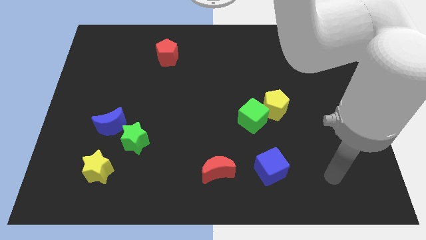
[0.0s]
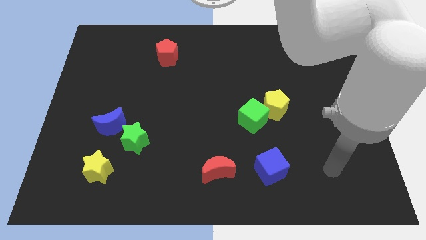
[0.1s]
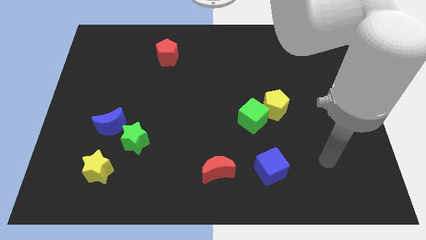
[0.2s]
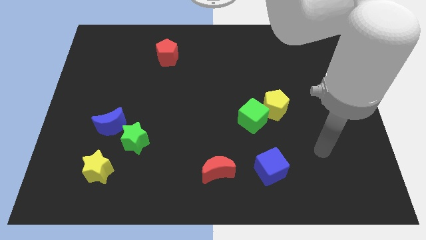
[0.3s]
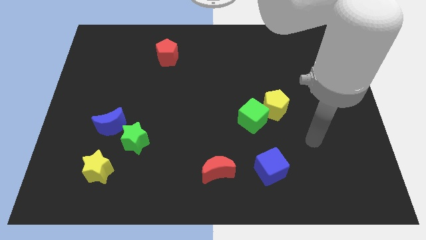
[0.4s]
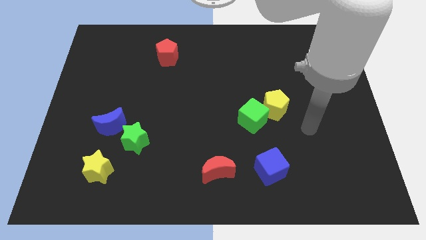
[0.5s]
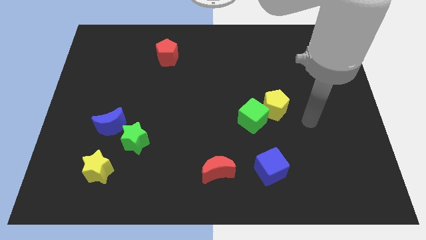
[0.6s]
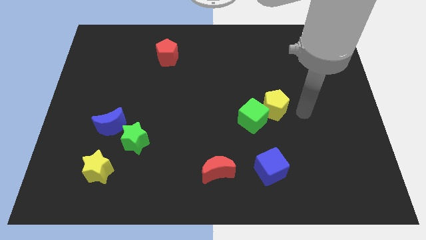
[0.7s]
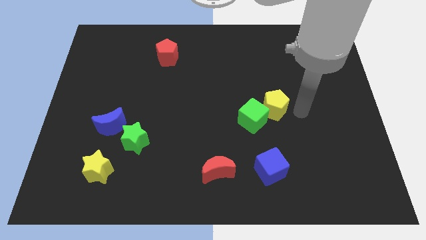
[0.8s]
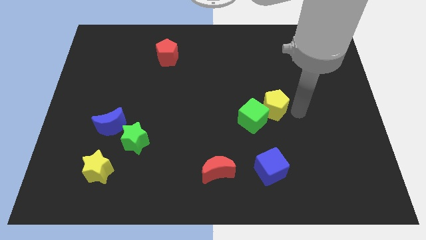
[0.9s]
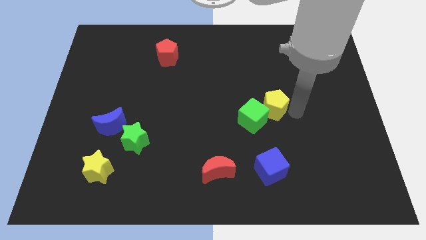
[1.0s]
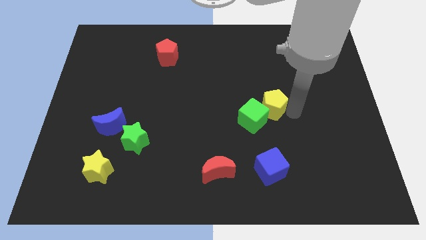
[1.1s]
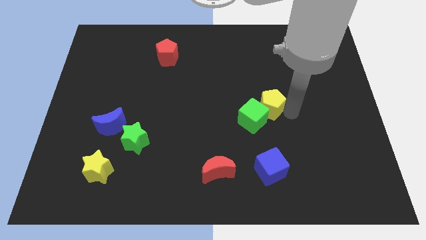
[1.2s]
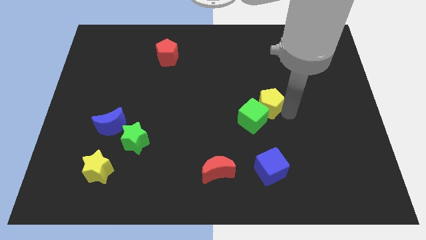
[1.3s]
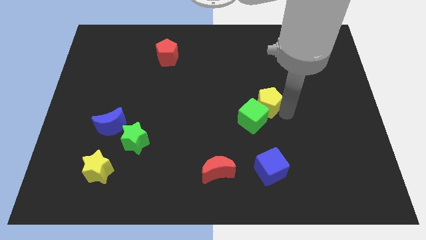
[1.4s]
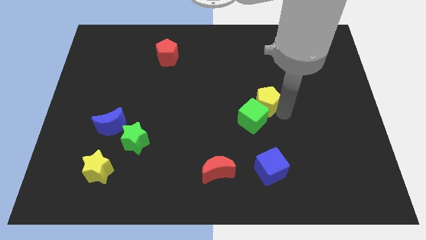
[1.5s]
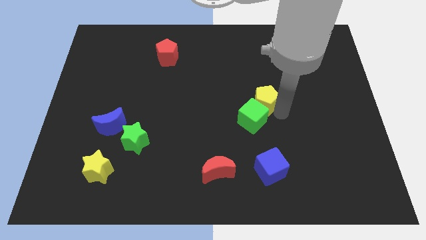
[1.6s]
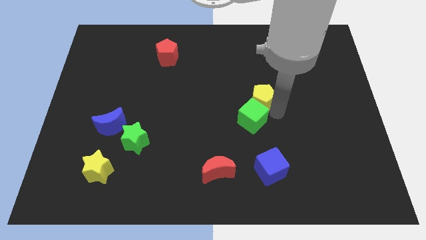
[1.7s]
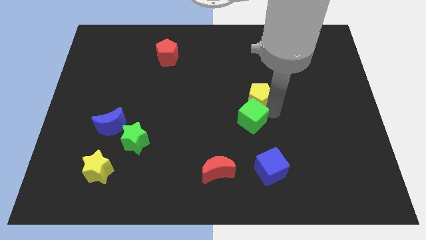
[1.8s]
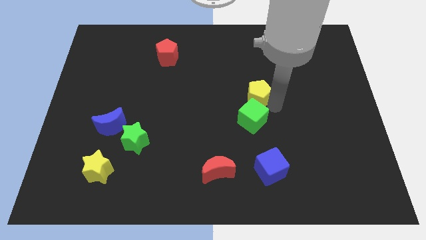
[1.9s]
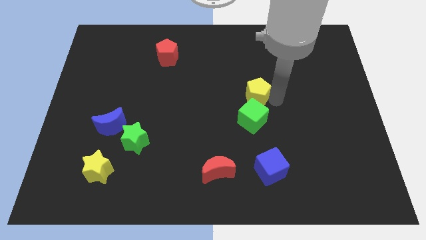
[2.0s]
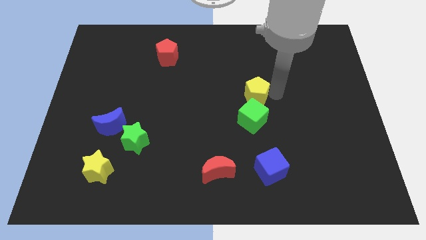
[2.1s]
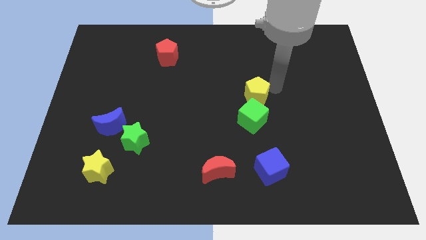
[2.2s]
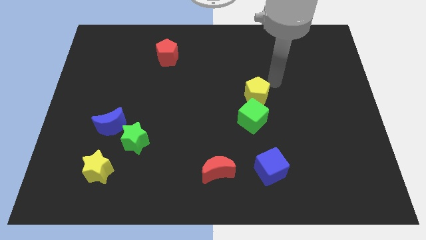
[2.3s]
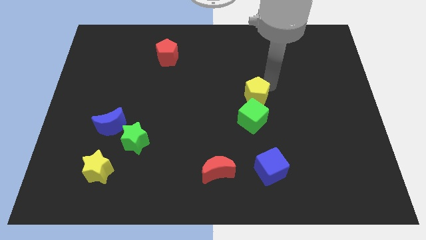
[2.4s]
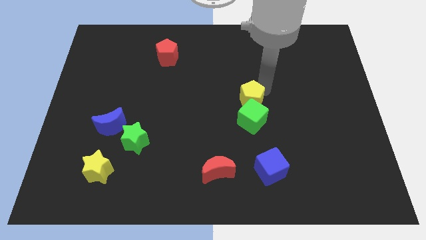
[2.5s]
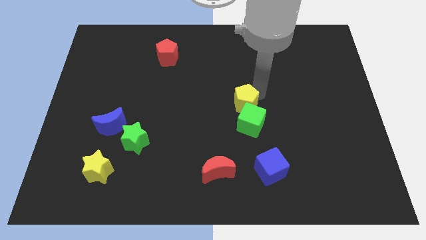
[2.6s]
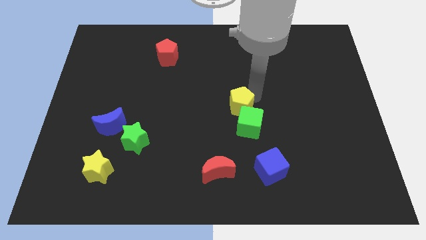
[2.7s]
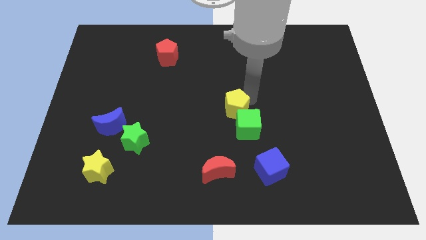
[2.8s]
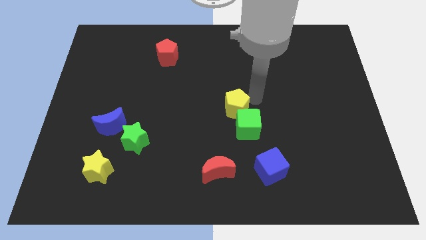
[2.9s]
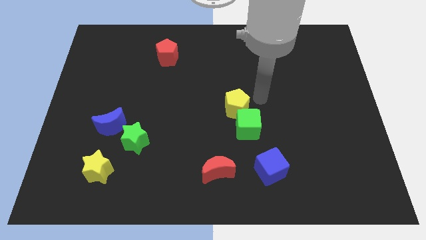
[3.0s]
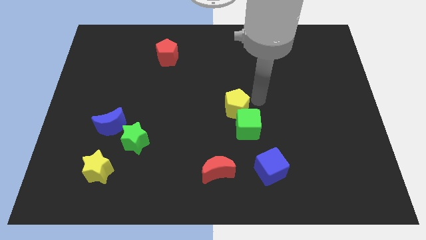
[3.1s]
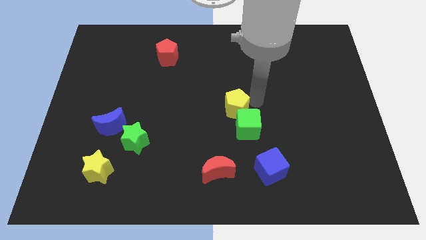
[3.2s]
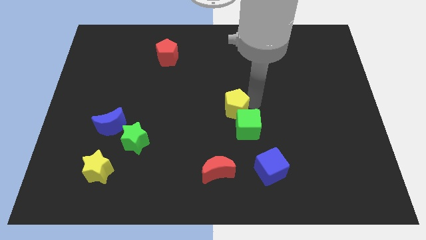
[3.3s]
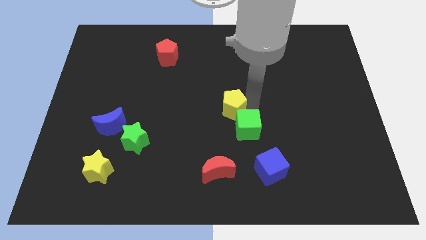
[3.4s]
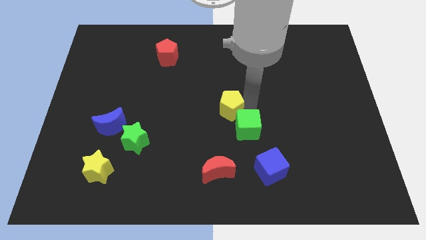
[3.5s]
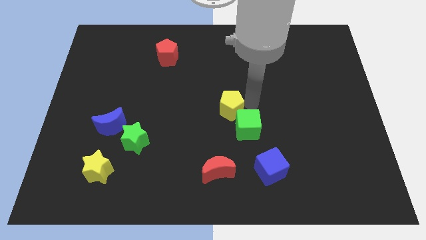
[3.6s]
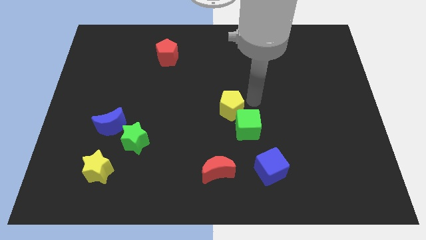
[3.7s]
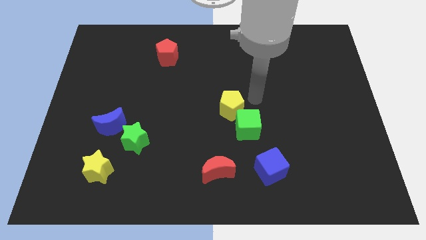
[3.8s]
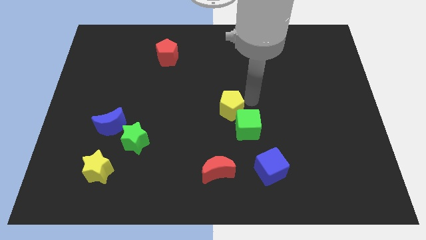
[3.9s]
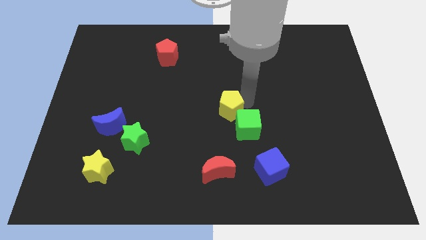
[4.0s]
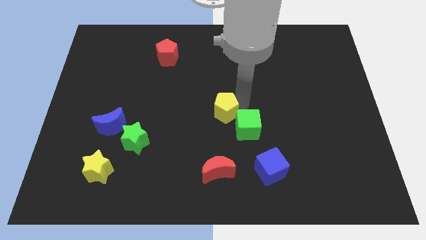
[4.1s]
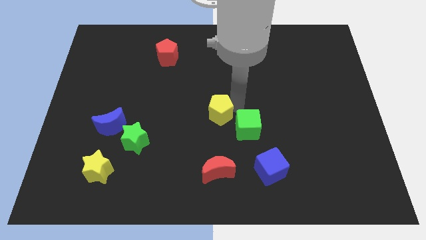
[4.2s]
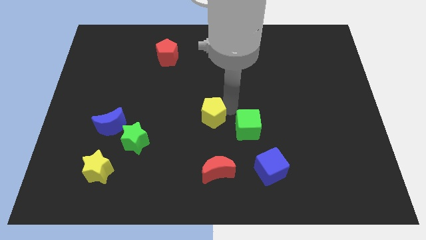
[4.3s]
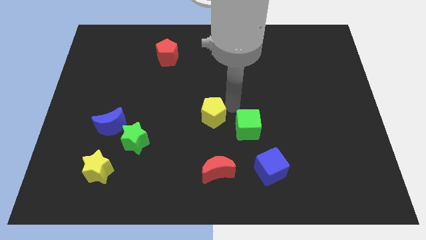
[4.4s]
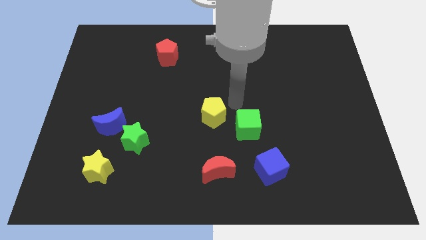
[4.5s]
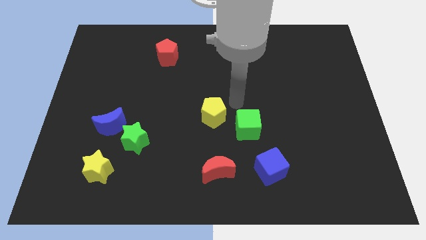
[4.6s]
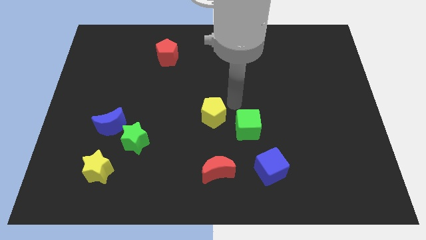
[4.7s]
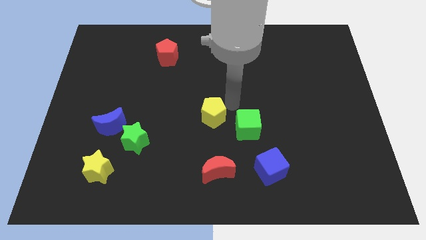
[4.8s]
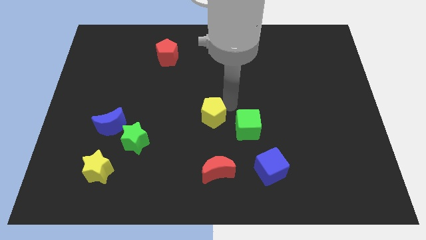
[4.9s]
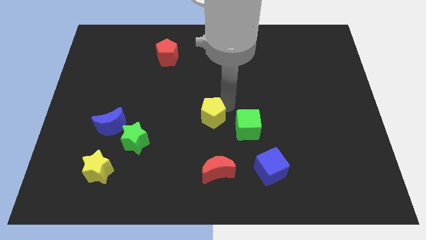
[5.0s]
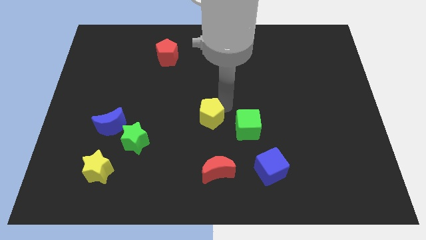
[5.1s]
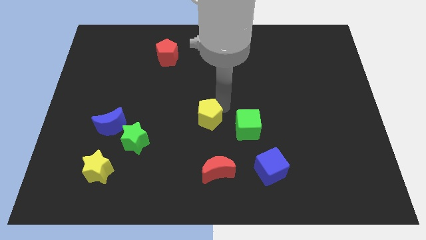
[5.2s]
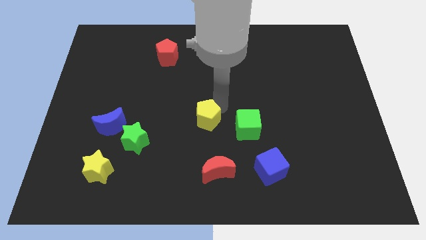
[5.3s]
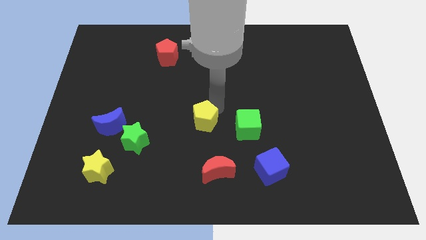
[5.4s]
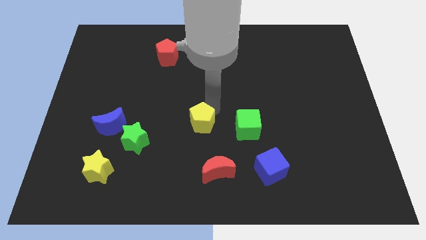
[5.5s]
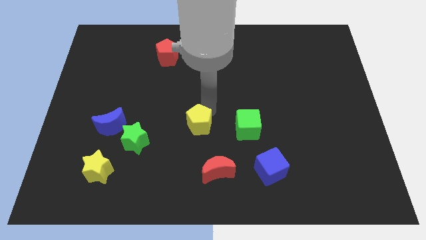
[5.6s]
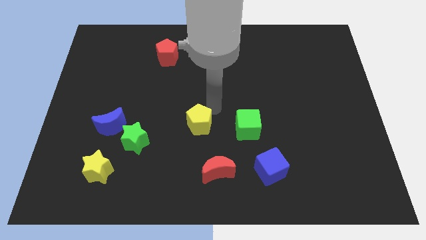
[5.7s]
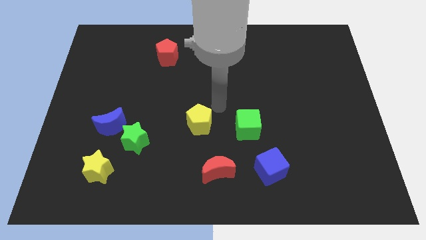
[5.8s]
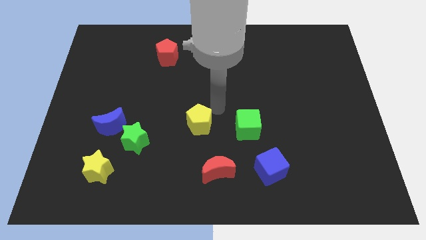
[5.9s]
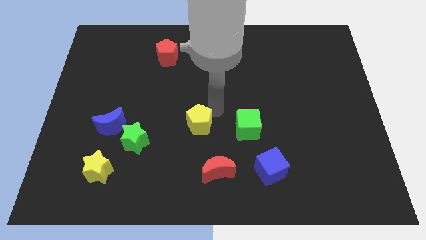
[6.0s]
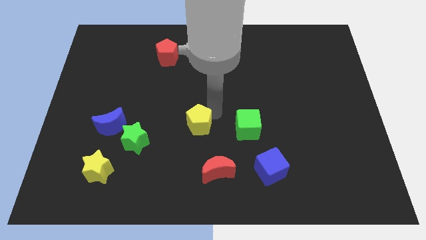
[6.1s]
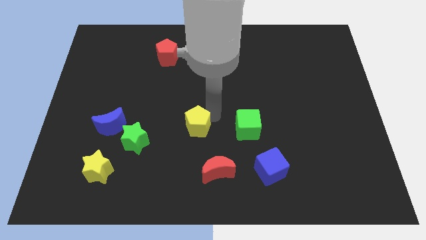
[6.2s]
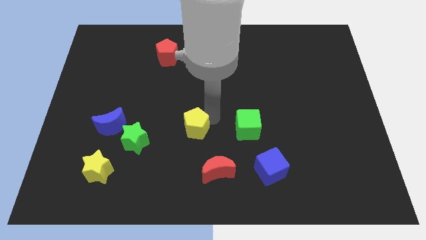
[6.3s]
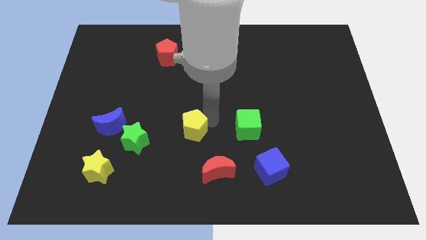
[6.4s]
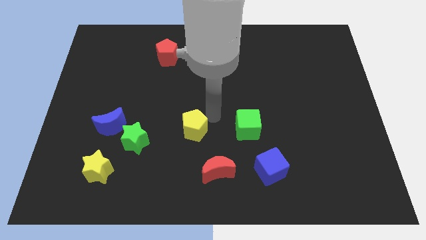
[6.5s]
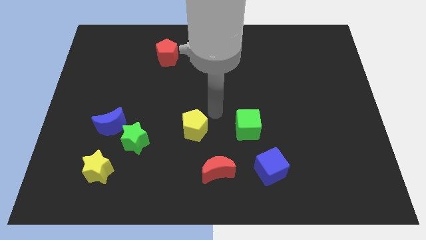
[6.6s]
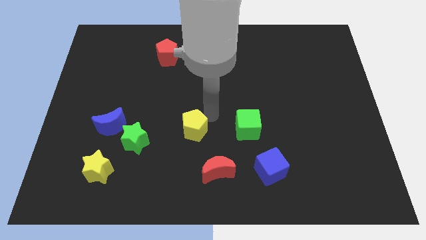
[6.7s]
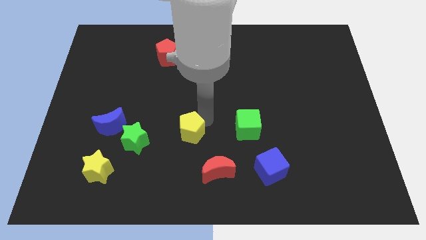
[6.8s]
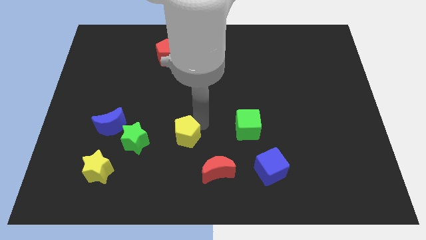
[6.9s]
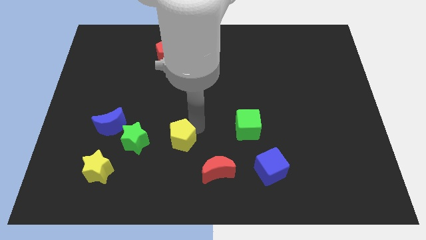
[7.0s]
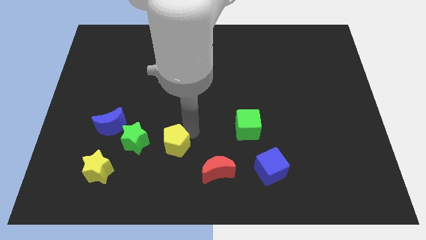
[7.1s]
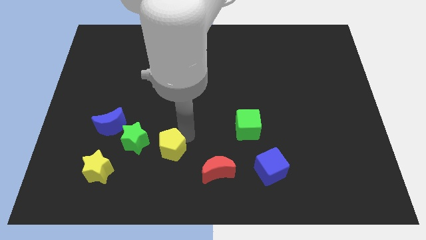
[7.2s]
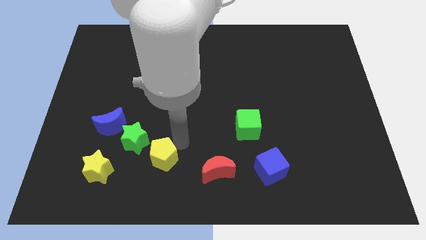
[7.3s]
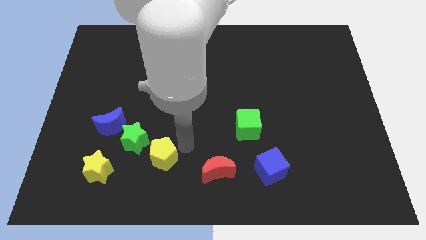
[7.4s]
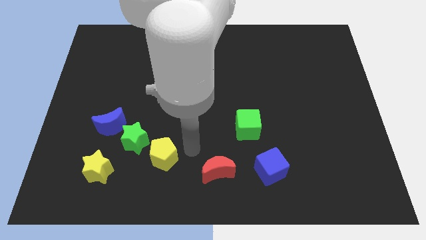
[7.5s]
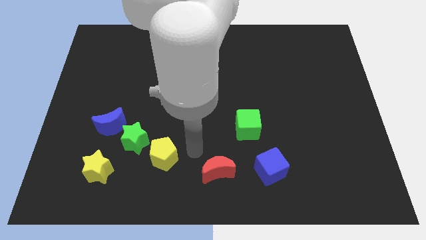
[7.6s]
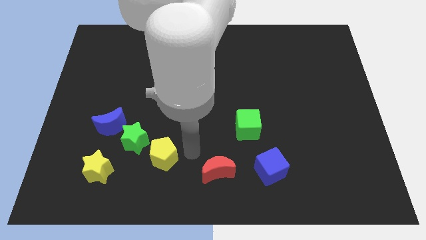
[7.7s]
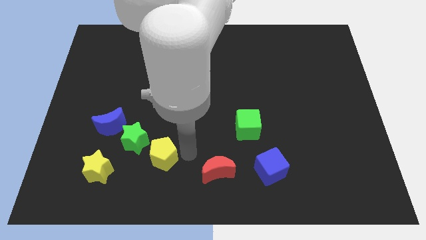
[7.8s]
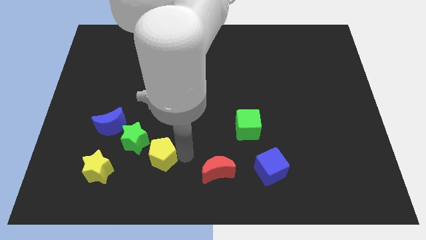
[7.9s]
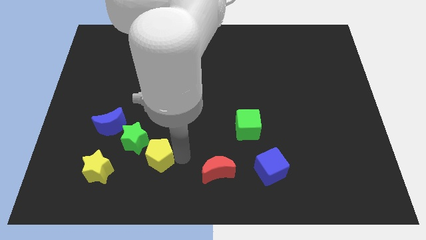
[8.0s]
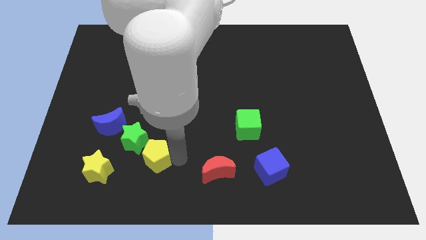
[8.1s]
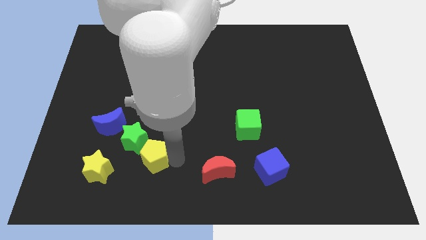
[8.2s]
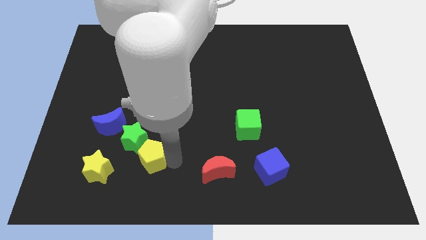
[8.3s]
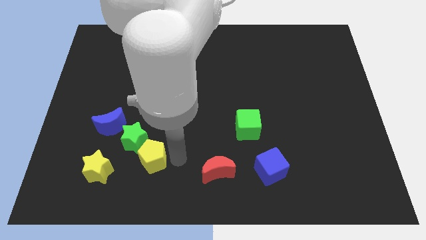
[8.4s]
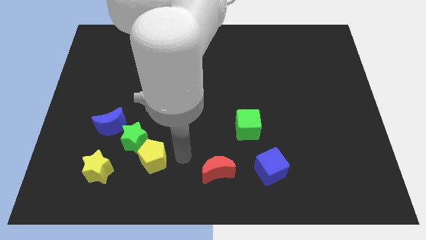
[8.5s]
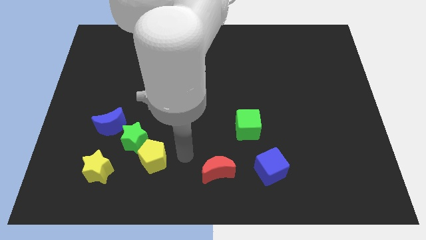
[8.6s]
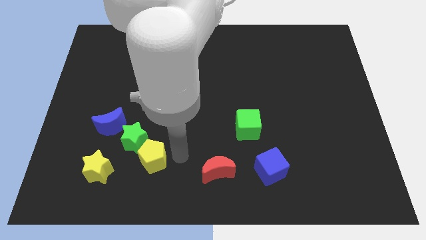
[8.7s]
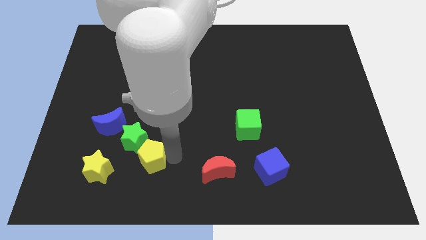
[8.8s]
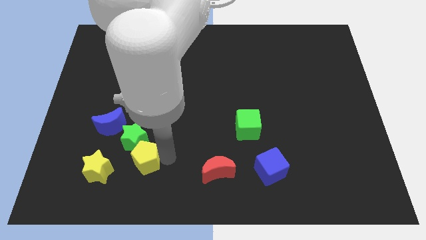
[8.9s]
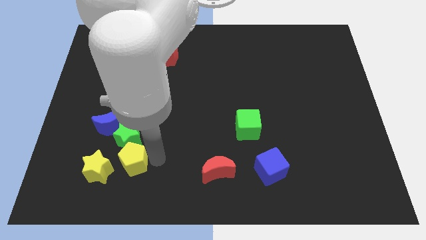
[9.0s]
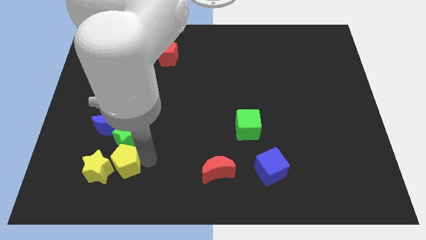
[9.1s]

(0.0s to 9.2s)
push the yellow pentagon next to the yellow star
